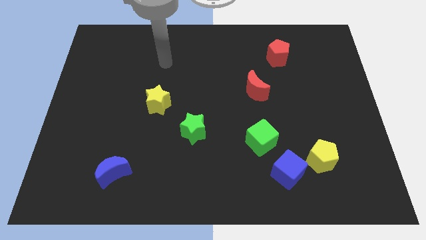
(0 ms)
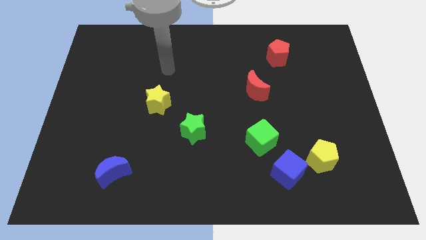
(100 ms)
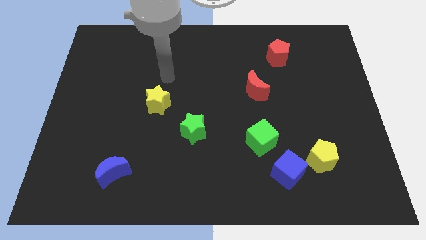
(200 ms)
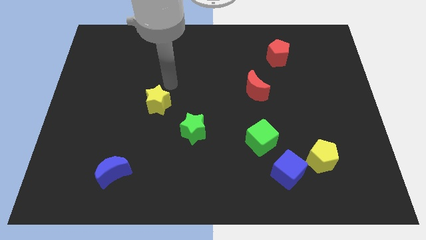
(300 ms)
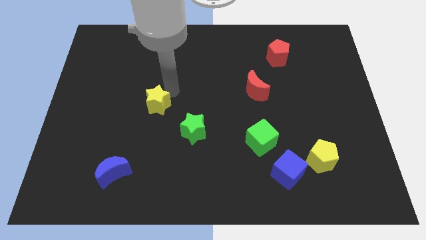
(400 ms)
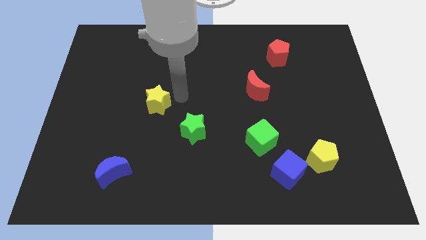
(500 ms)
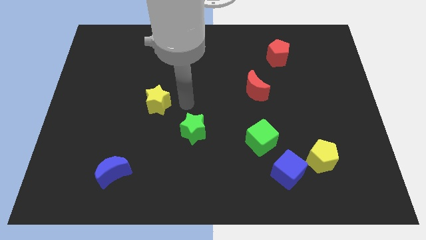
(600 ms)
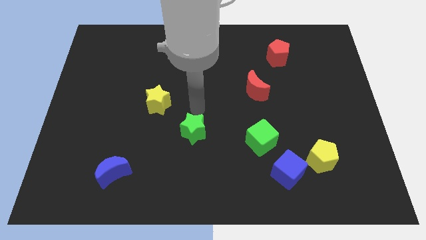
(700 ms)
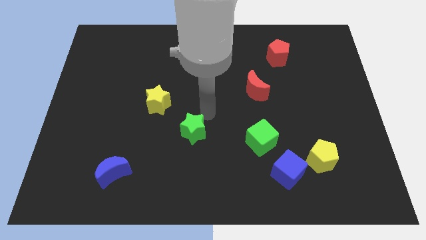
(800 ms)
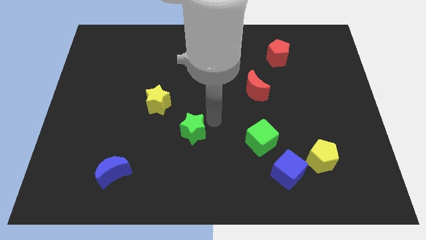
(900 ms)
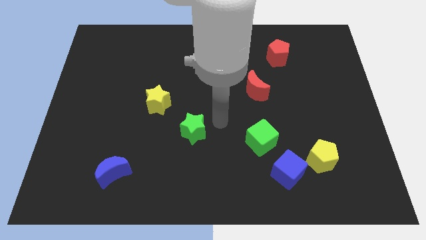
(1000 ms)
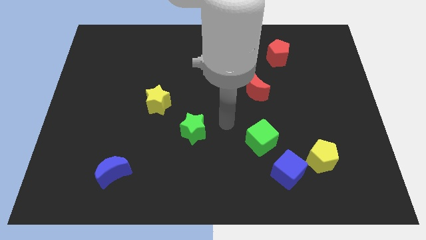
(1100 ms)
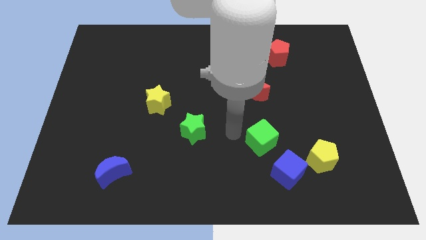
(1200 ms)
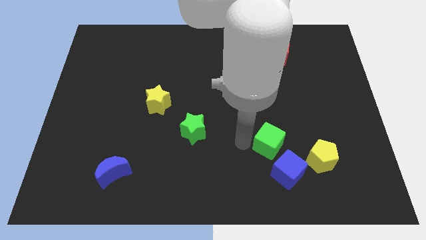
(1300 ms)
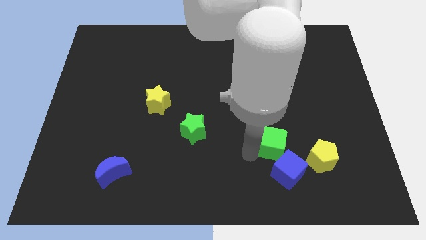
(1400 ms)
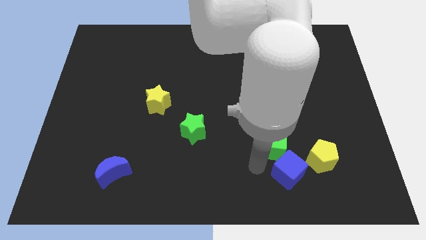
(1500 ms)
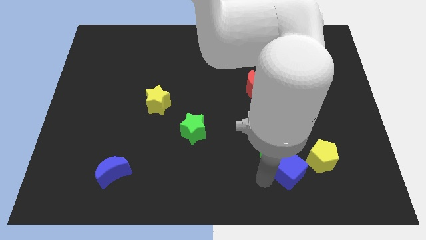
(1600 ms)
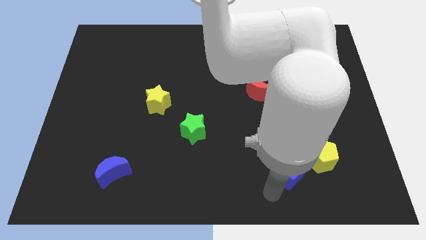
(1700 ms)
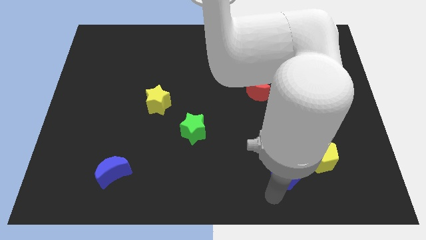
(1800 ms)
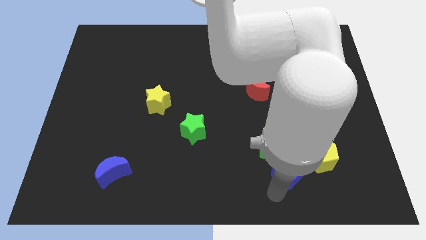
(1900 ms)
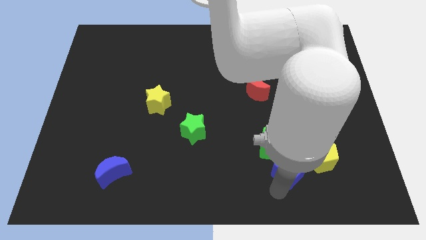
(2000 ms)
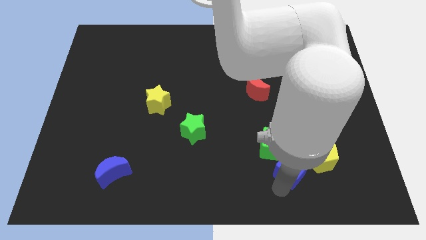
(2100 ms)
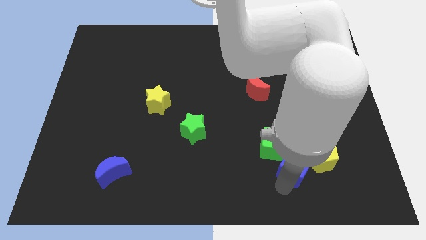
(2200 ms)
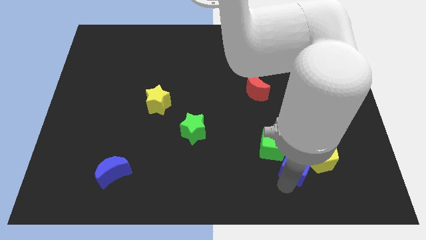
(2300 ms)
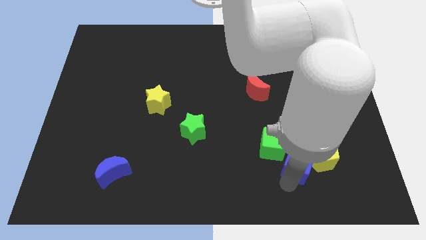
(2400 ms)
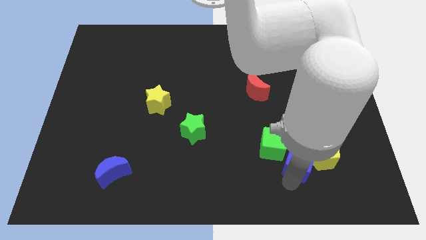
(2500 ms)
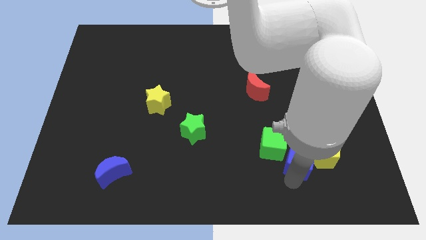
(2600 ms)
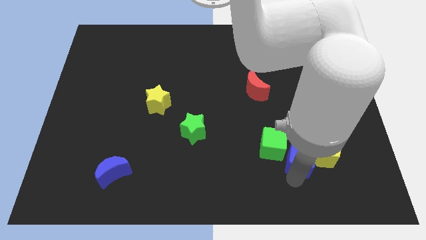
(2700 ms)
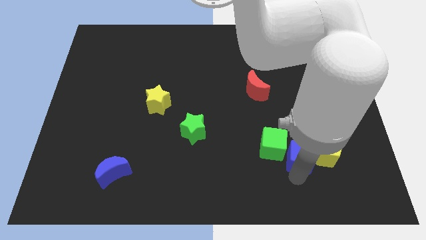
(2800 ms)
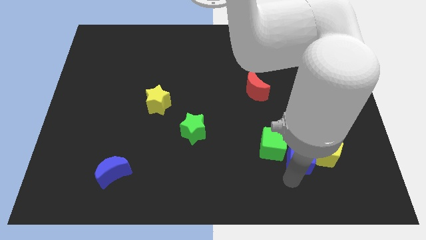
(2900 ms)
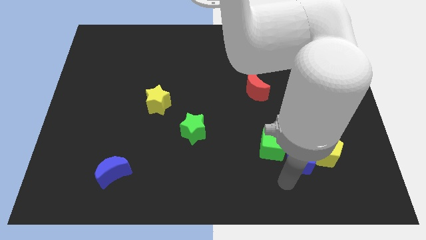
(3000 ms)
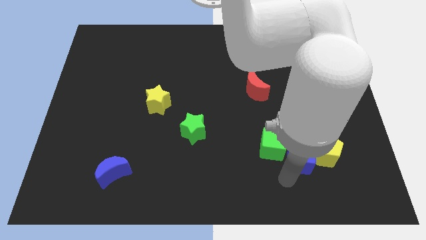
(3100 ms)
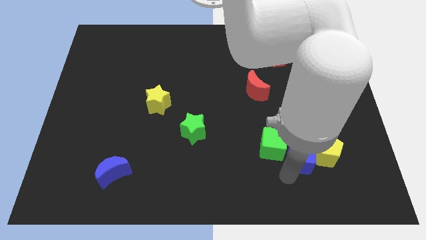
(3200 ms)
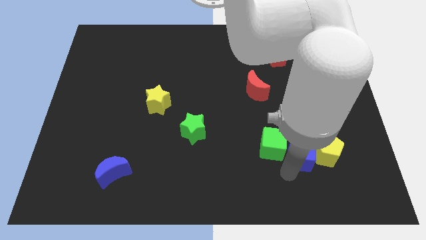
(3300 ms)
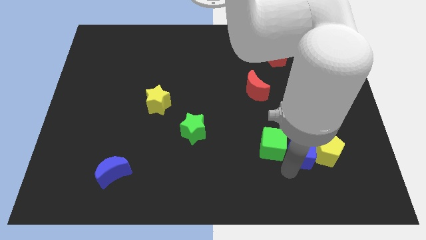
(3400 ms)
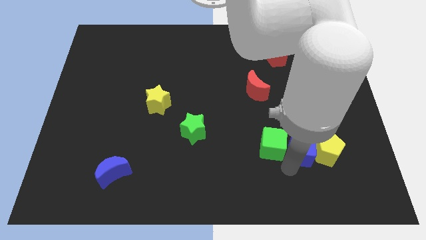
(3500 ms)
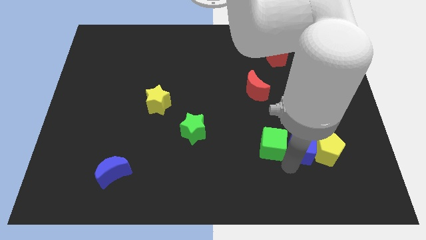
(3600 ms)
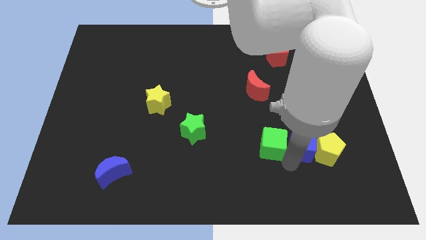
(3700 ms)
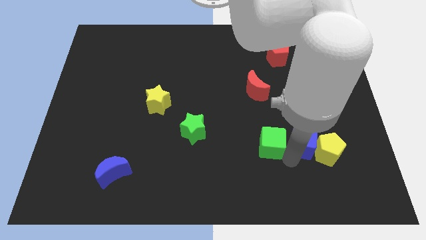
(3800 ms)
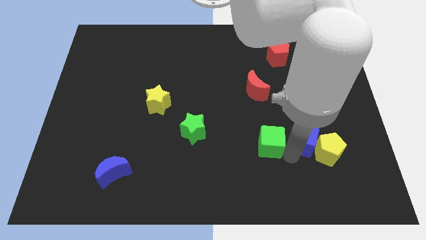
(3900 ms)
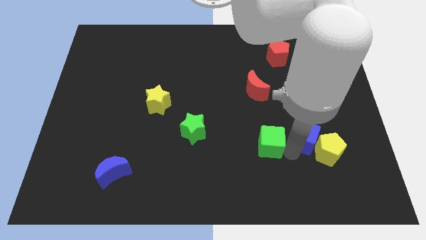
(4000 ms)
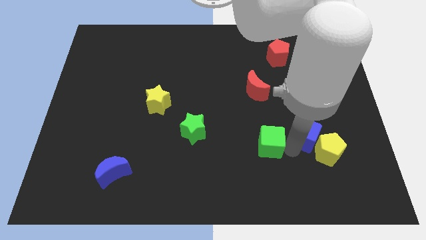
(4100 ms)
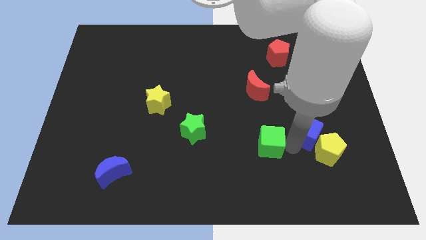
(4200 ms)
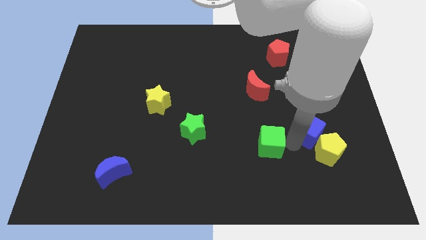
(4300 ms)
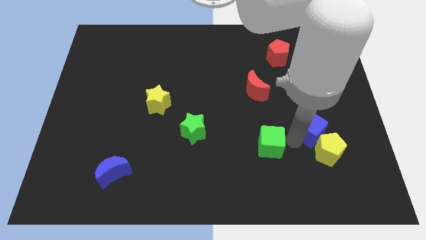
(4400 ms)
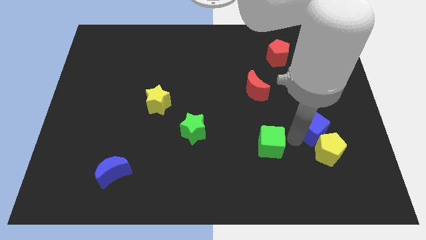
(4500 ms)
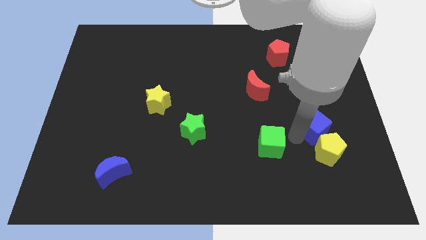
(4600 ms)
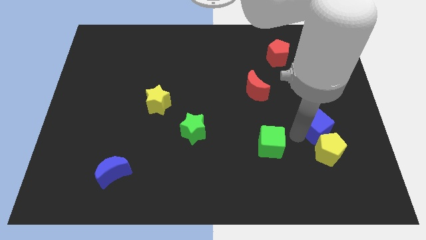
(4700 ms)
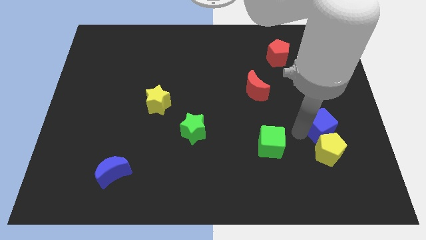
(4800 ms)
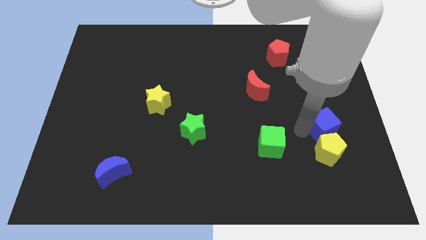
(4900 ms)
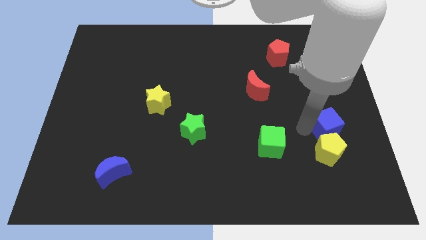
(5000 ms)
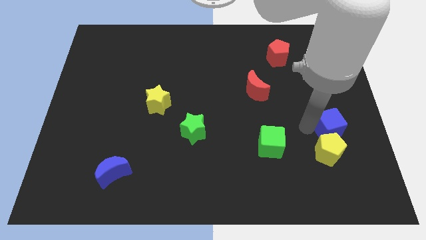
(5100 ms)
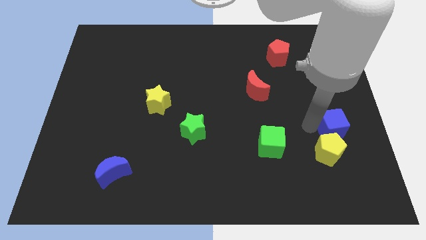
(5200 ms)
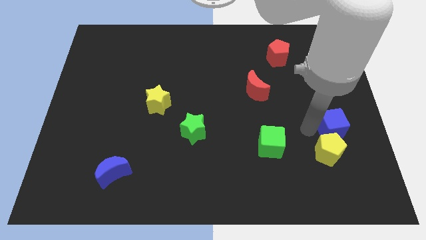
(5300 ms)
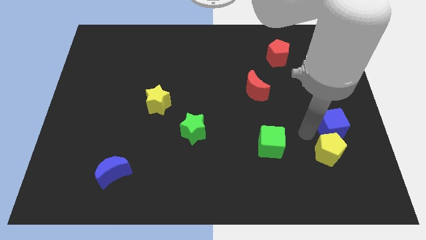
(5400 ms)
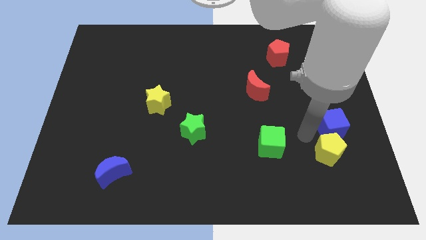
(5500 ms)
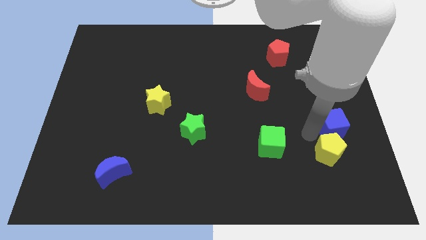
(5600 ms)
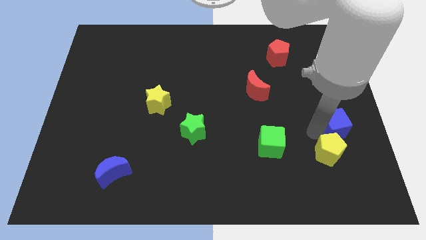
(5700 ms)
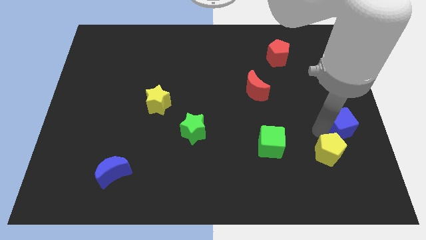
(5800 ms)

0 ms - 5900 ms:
move the blue cube to the right side
